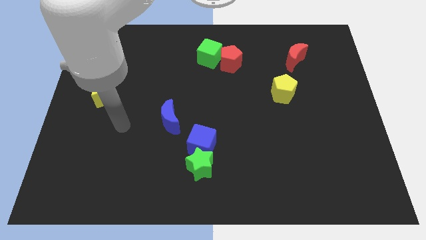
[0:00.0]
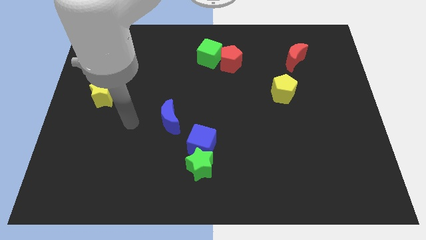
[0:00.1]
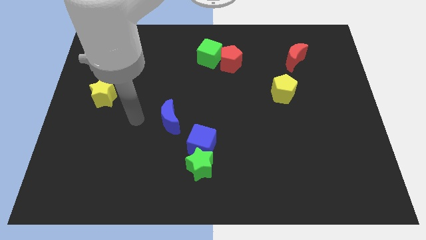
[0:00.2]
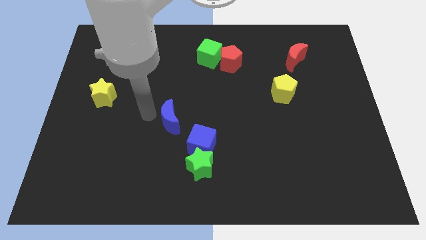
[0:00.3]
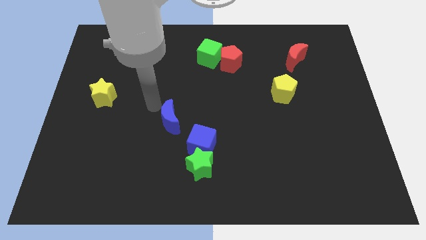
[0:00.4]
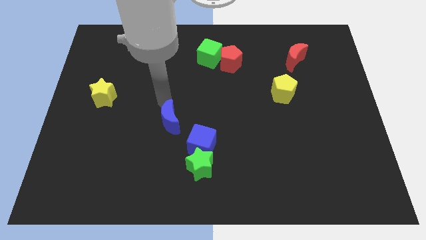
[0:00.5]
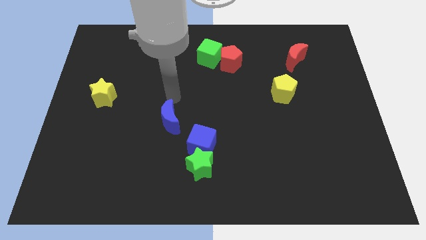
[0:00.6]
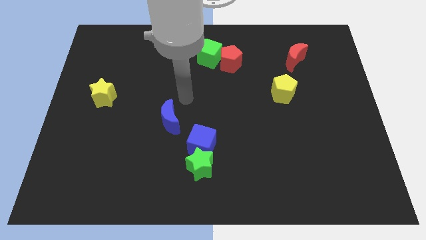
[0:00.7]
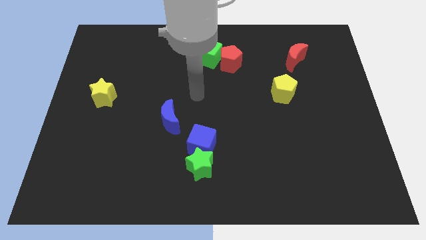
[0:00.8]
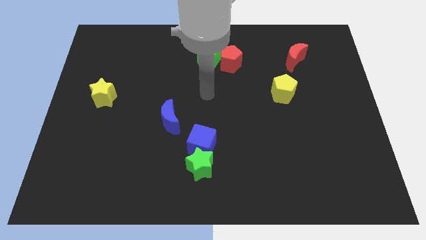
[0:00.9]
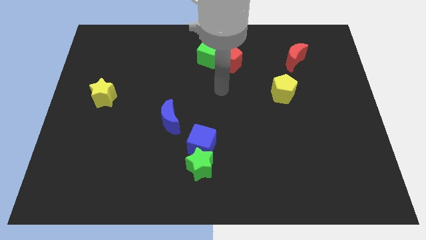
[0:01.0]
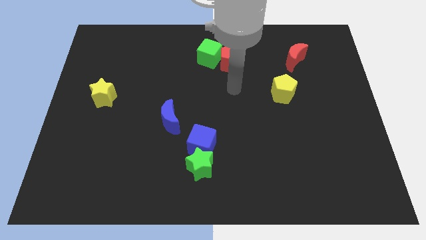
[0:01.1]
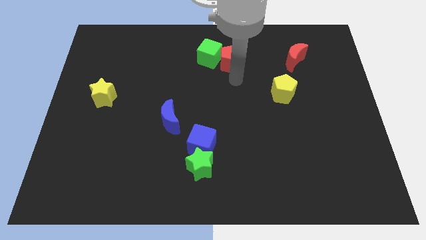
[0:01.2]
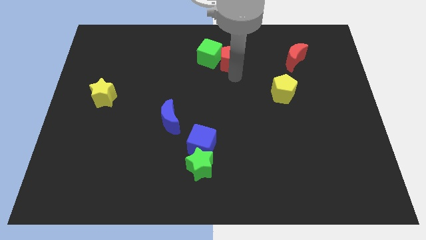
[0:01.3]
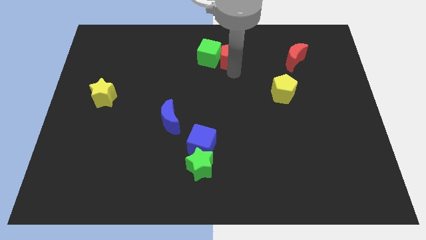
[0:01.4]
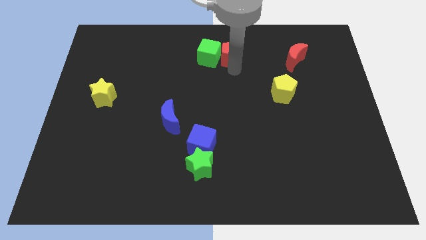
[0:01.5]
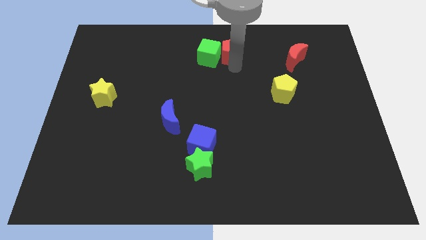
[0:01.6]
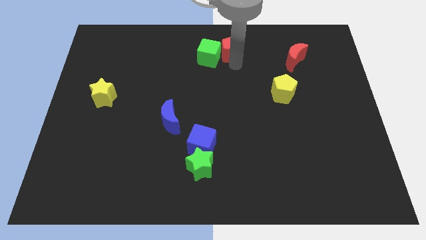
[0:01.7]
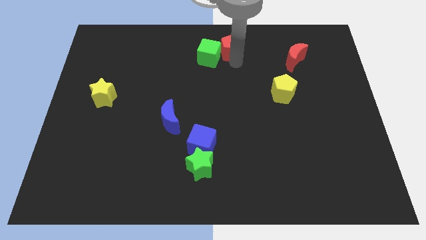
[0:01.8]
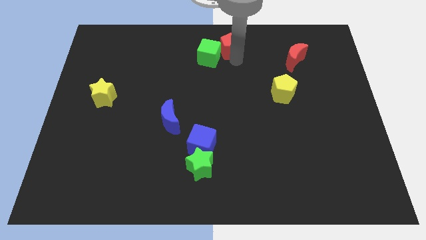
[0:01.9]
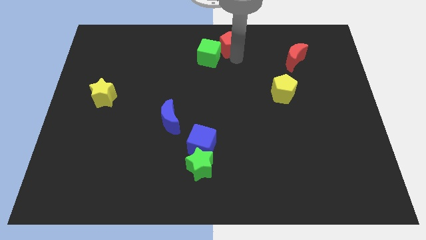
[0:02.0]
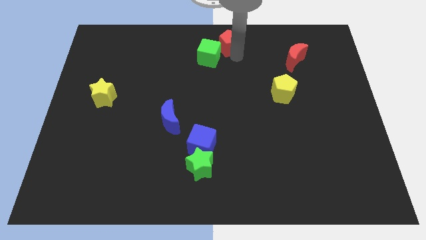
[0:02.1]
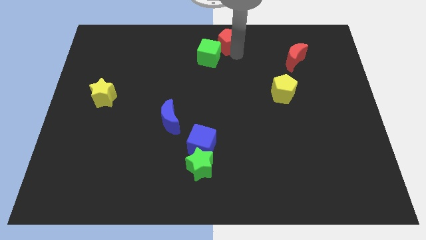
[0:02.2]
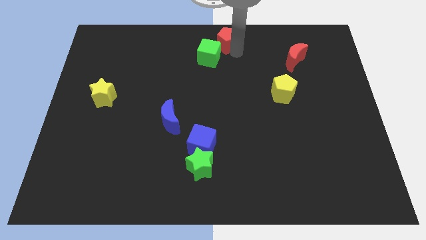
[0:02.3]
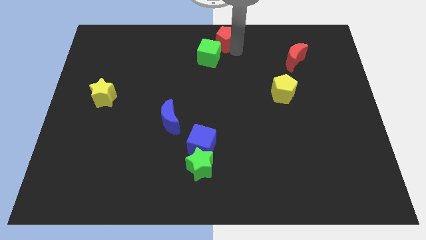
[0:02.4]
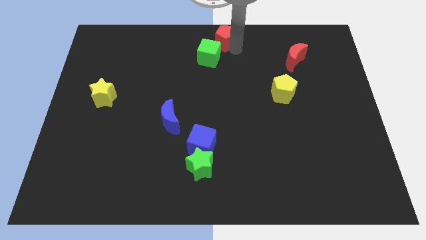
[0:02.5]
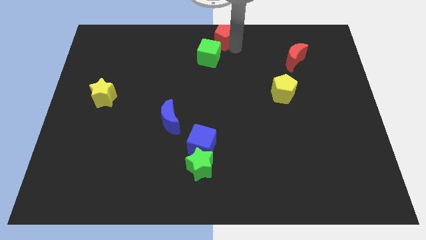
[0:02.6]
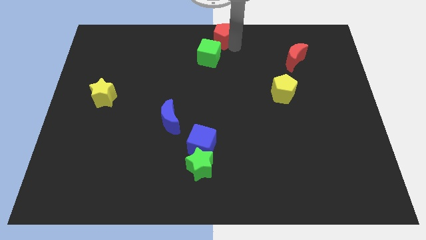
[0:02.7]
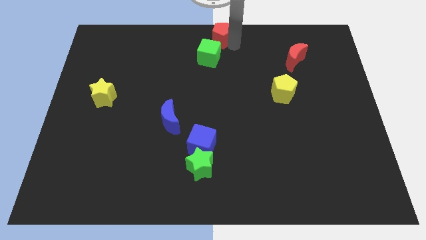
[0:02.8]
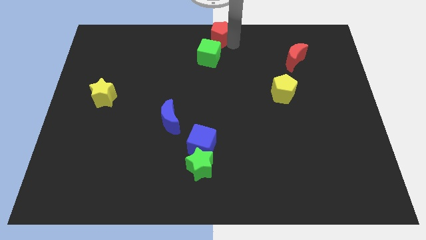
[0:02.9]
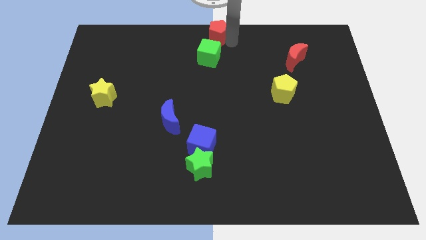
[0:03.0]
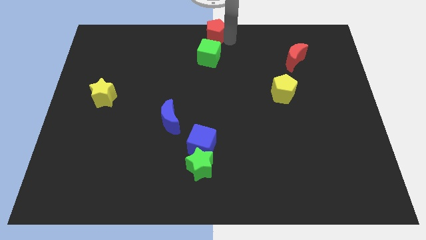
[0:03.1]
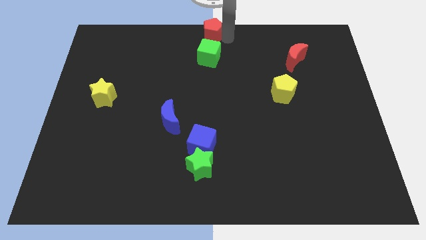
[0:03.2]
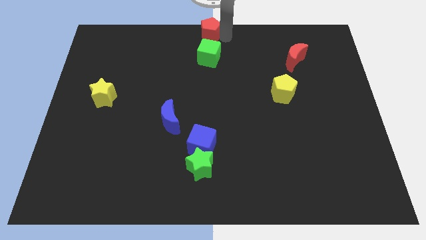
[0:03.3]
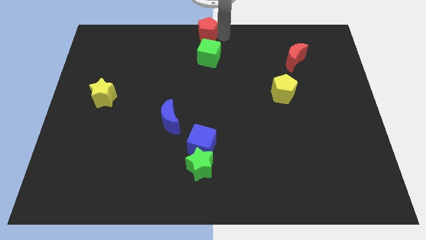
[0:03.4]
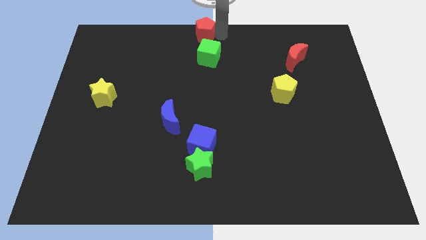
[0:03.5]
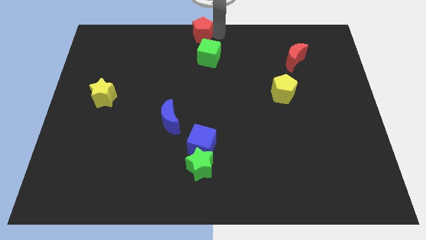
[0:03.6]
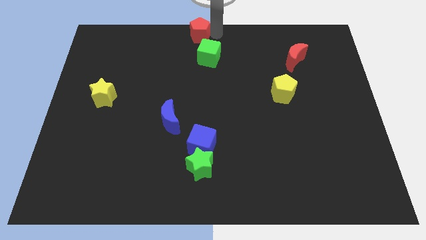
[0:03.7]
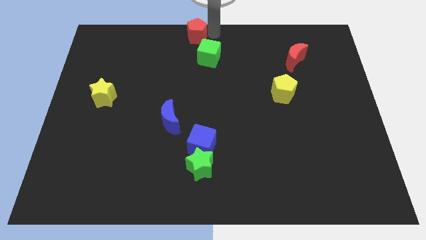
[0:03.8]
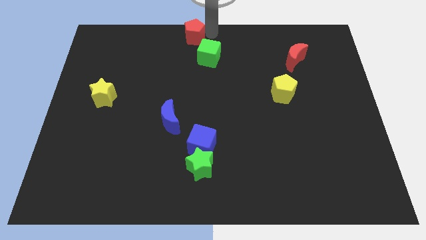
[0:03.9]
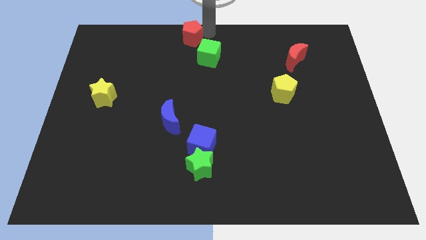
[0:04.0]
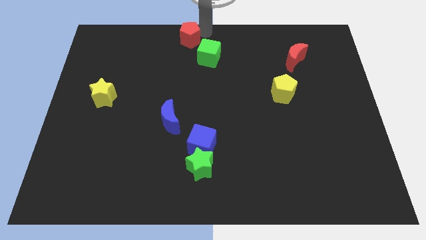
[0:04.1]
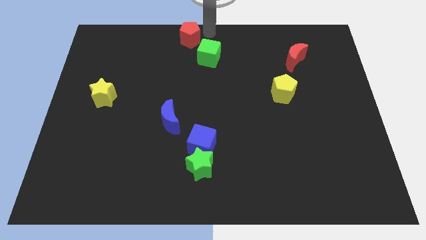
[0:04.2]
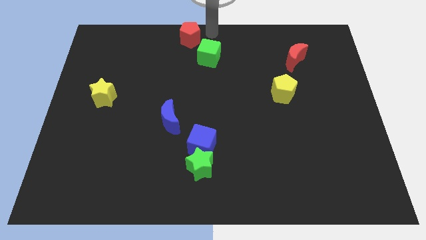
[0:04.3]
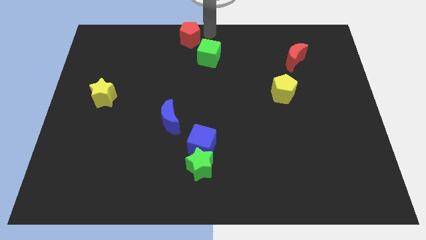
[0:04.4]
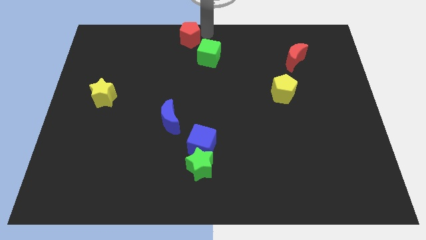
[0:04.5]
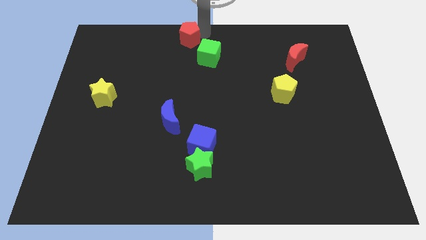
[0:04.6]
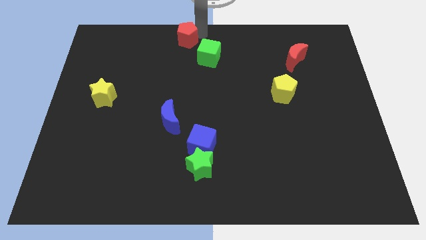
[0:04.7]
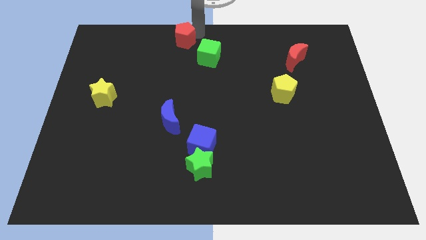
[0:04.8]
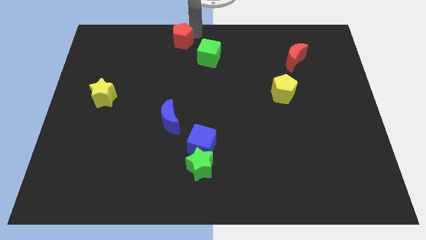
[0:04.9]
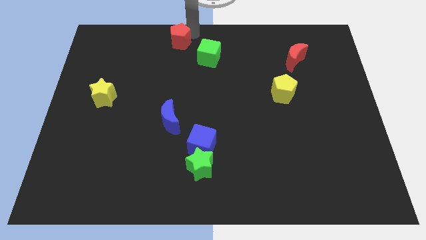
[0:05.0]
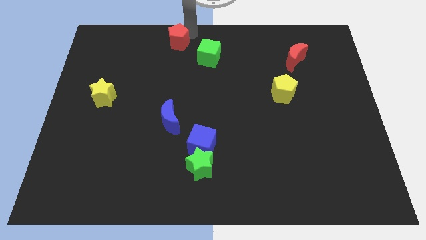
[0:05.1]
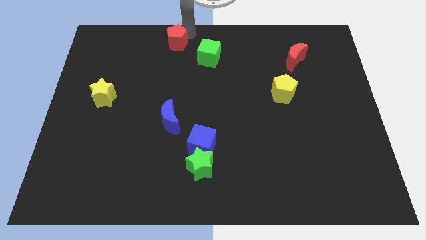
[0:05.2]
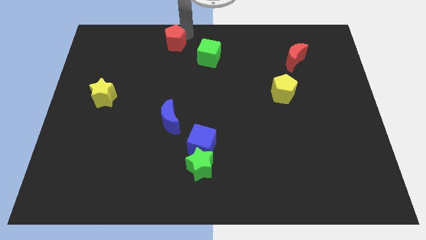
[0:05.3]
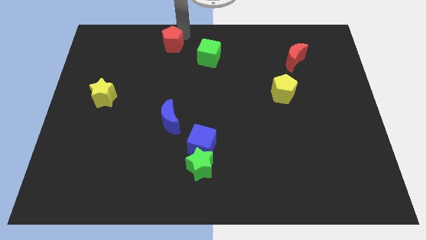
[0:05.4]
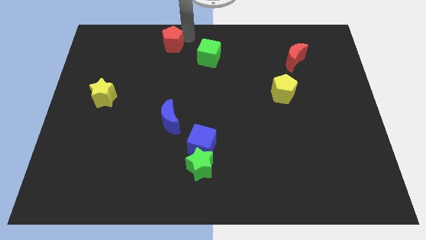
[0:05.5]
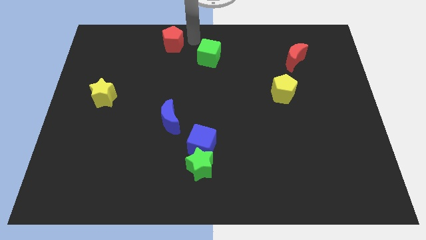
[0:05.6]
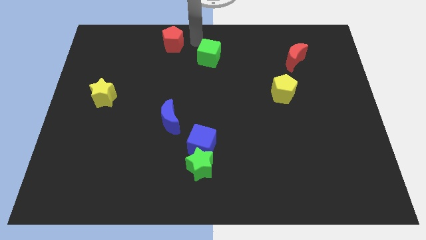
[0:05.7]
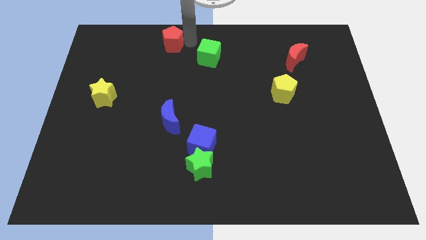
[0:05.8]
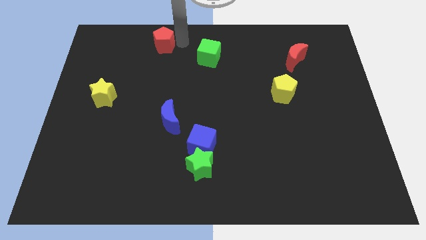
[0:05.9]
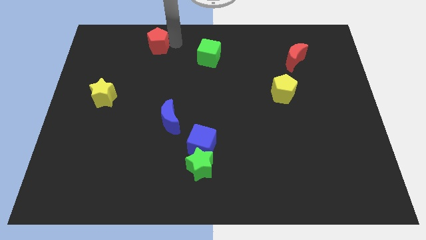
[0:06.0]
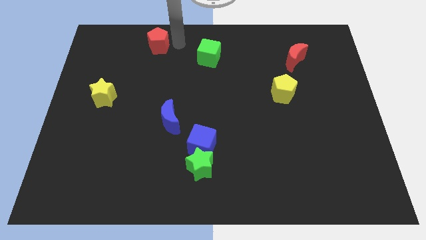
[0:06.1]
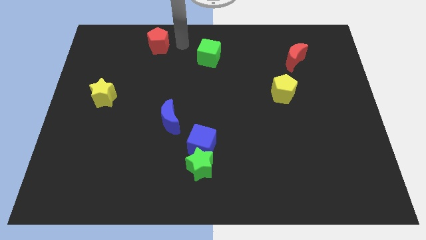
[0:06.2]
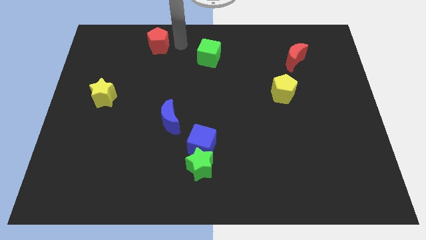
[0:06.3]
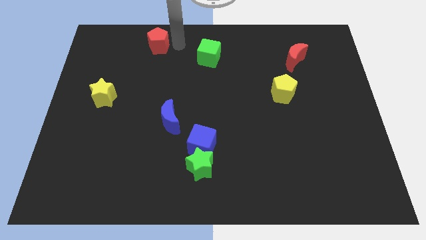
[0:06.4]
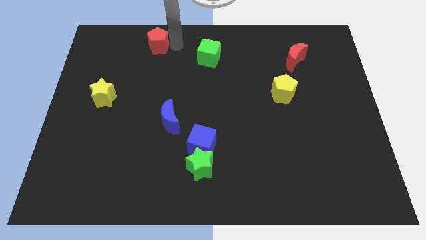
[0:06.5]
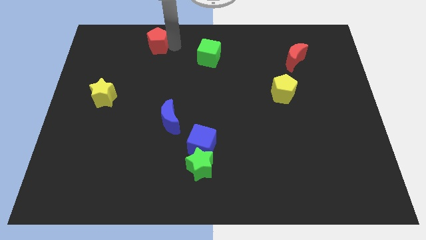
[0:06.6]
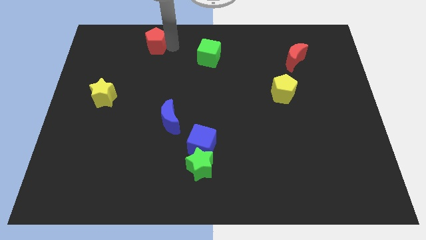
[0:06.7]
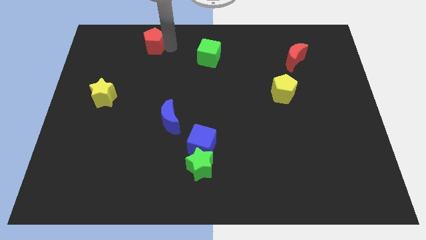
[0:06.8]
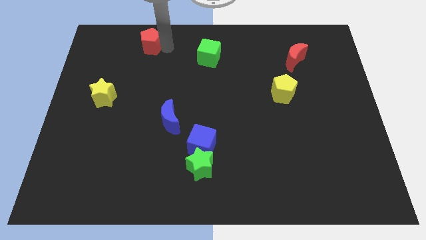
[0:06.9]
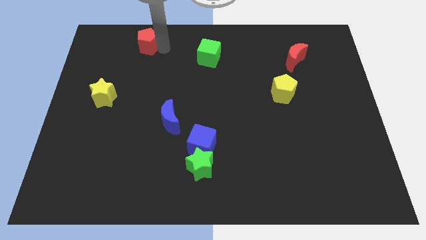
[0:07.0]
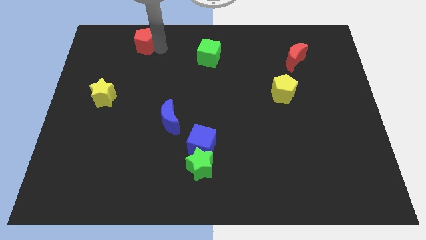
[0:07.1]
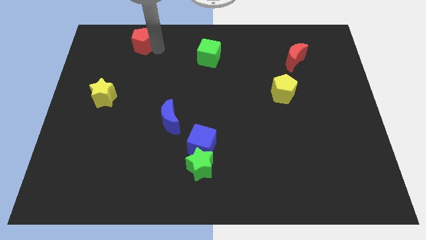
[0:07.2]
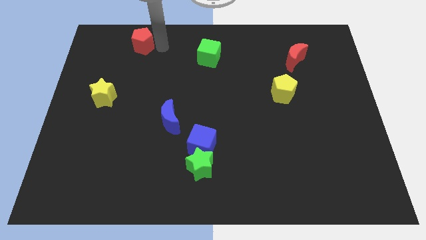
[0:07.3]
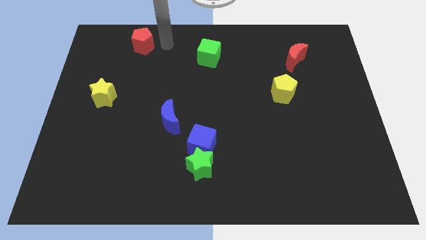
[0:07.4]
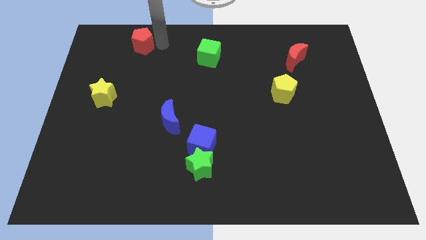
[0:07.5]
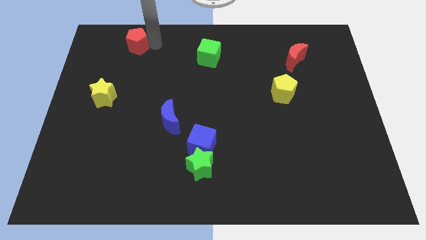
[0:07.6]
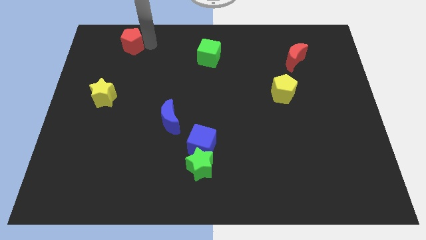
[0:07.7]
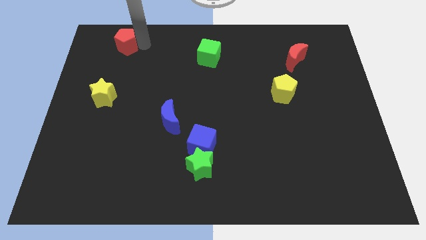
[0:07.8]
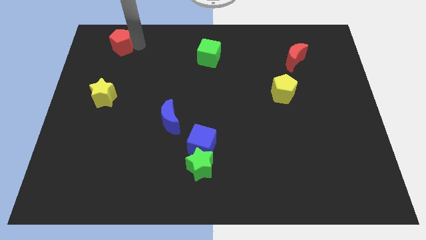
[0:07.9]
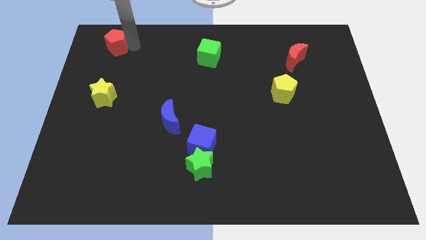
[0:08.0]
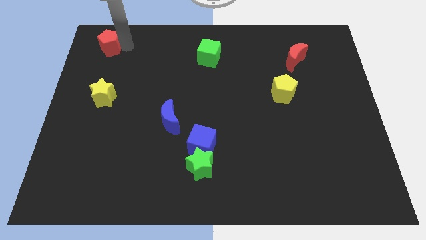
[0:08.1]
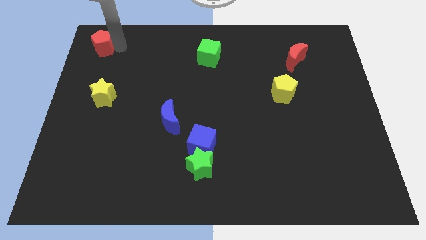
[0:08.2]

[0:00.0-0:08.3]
push the red pentagon to the upper left corner
